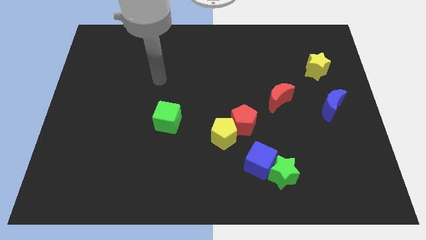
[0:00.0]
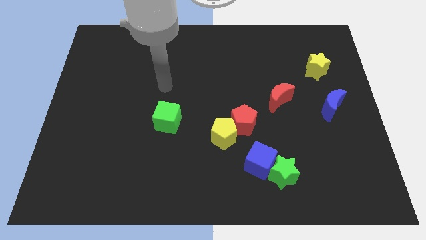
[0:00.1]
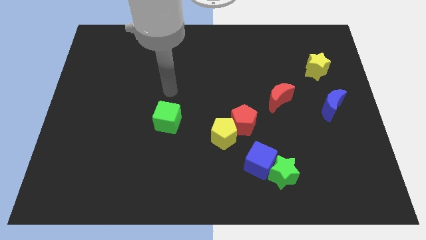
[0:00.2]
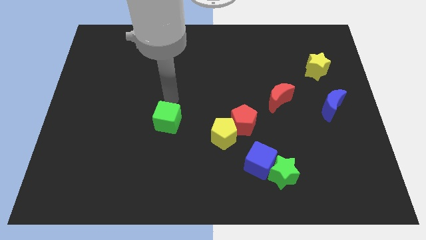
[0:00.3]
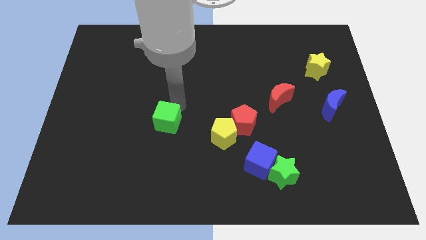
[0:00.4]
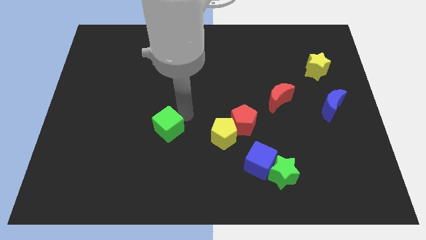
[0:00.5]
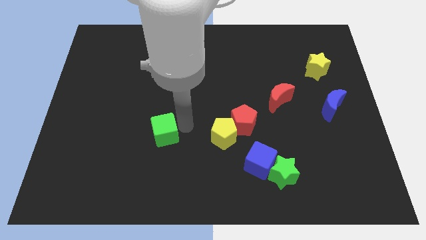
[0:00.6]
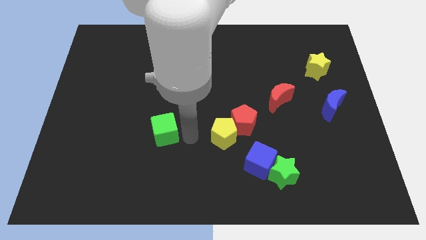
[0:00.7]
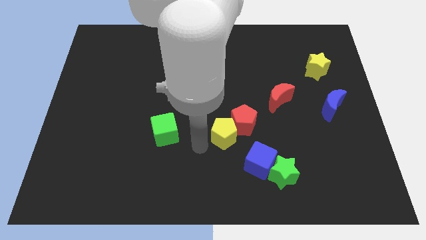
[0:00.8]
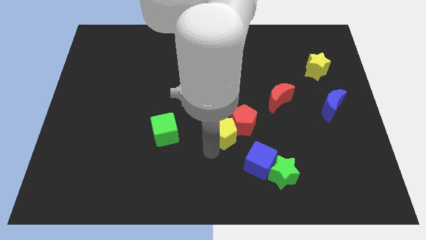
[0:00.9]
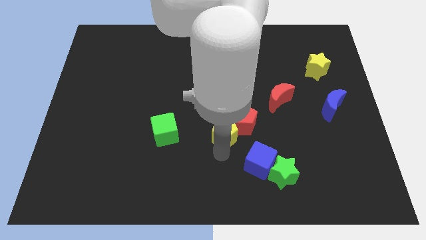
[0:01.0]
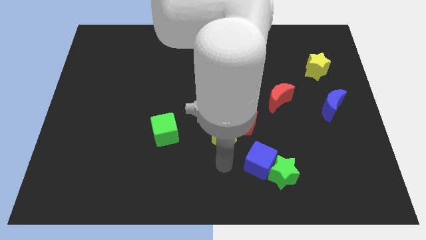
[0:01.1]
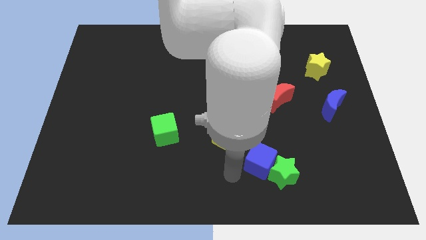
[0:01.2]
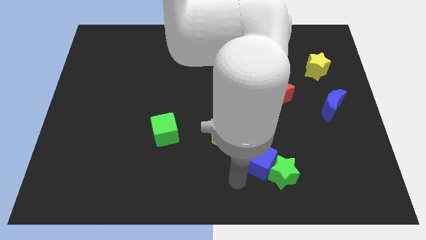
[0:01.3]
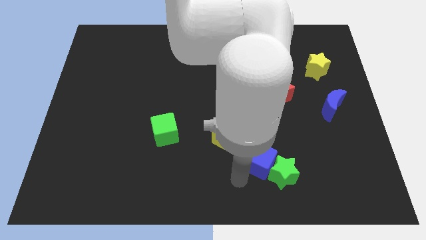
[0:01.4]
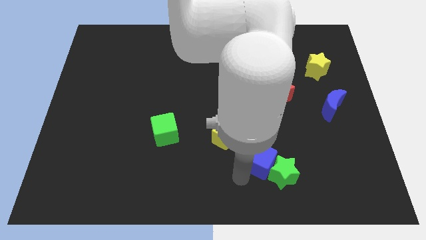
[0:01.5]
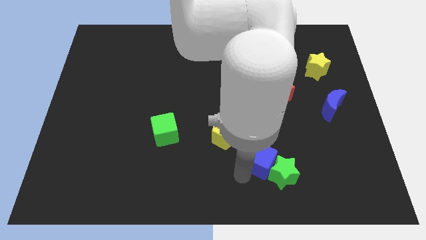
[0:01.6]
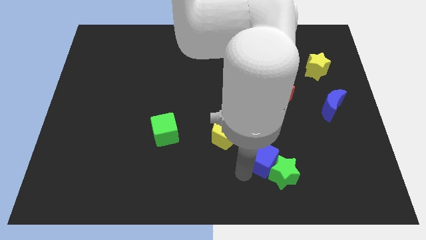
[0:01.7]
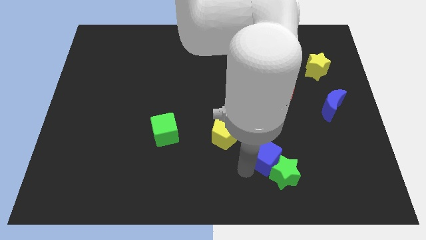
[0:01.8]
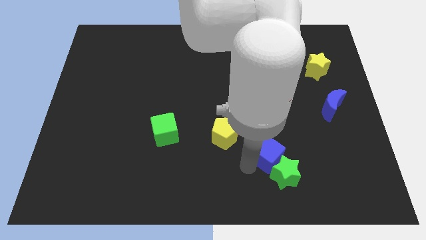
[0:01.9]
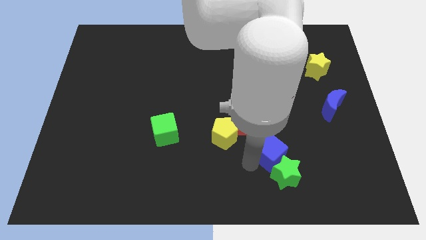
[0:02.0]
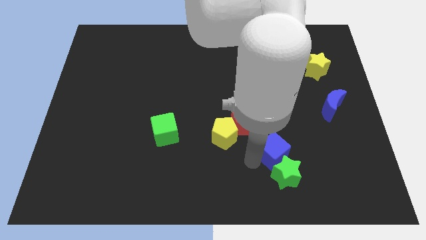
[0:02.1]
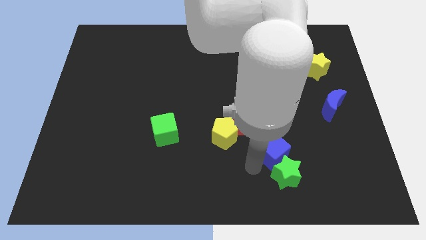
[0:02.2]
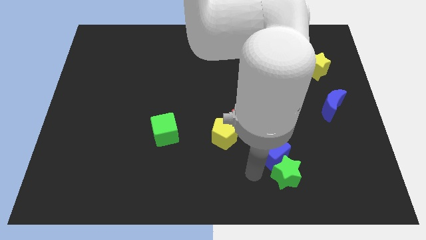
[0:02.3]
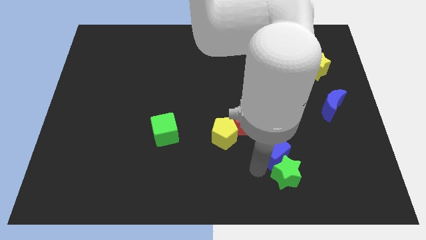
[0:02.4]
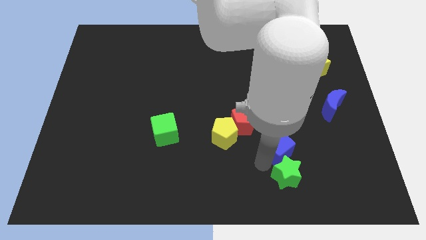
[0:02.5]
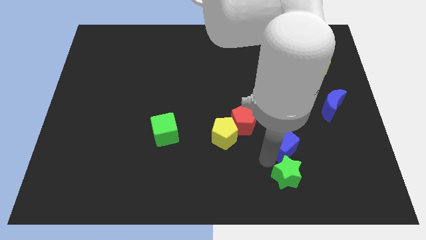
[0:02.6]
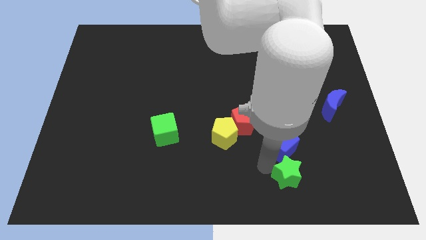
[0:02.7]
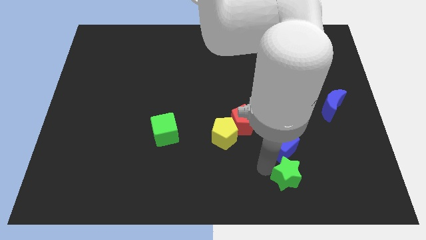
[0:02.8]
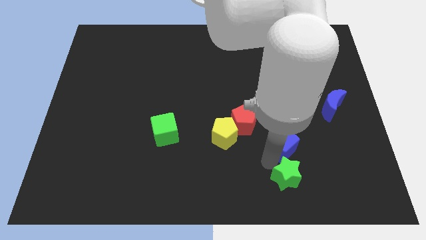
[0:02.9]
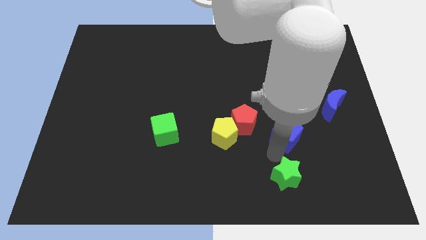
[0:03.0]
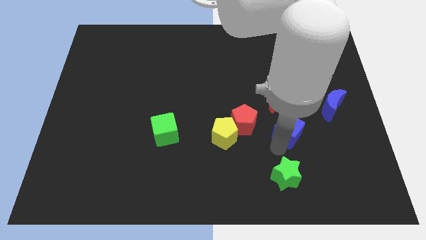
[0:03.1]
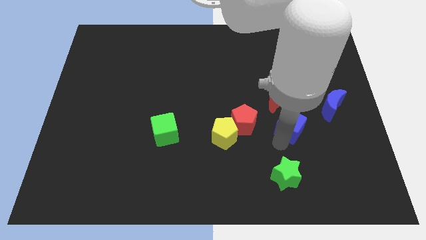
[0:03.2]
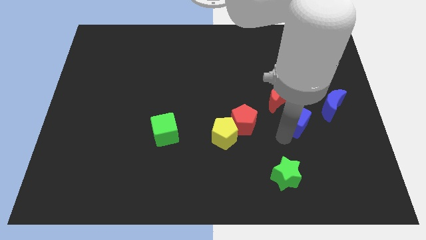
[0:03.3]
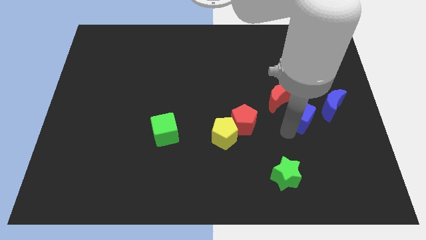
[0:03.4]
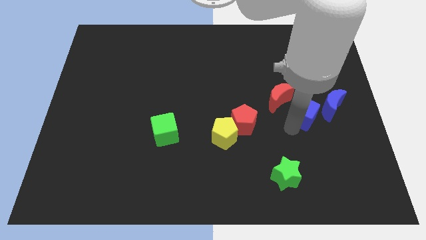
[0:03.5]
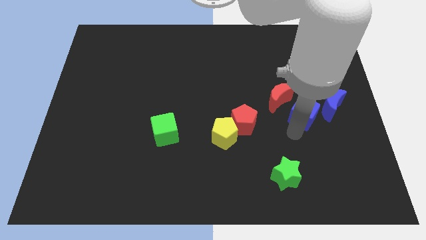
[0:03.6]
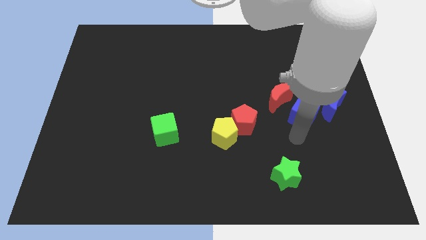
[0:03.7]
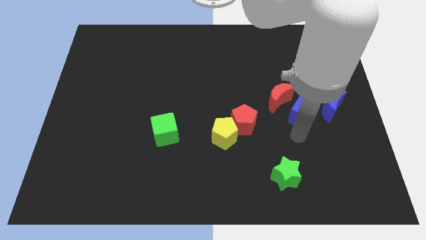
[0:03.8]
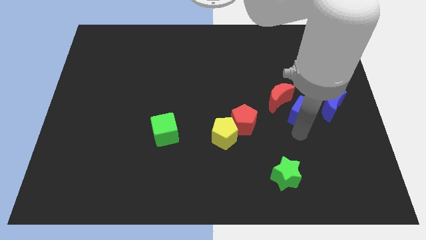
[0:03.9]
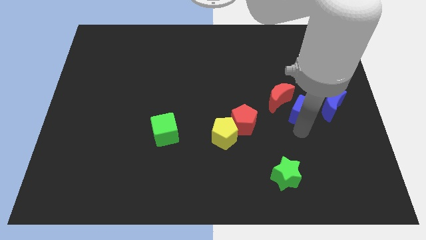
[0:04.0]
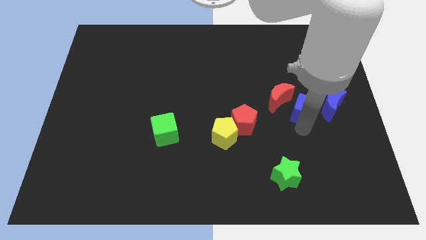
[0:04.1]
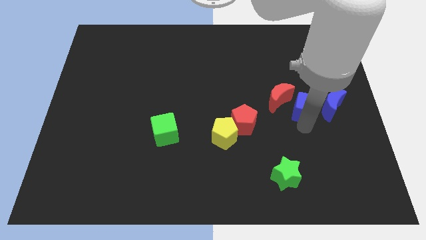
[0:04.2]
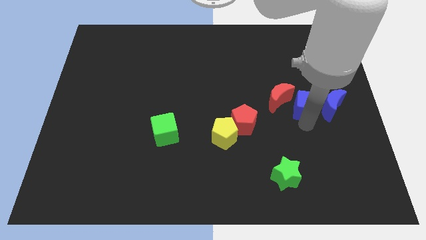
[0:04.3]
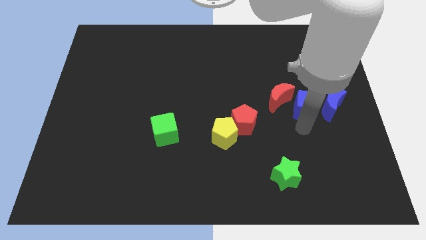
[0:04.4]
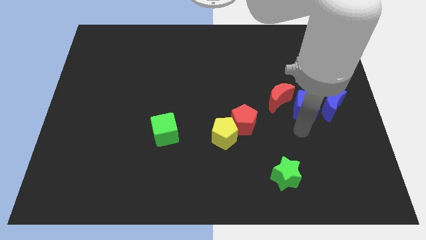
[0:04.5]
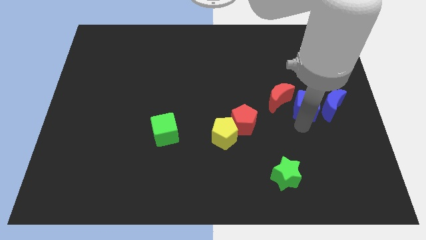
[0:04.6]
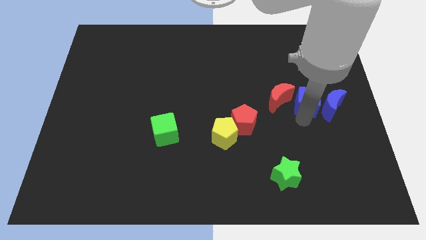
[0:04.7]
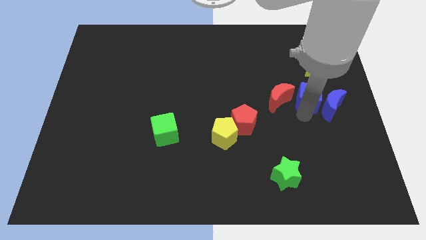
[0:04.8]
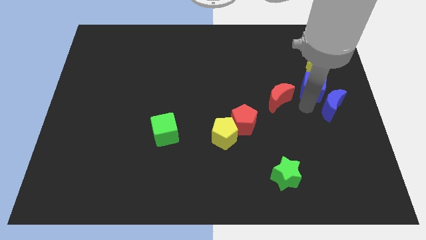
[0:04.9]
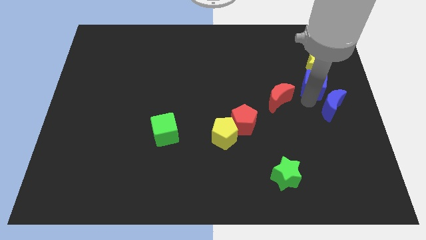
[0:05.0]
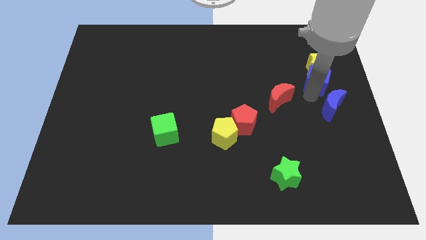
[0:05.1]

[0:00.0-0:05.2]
put the blue cube towards the yellow star

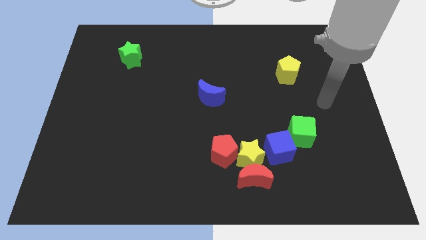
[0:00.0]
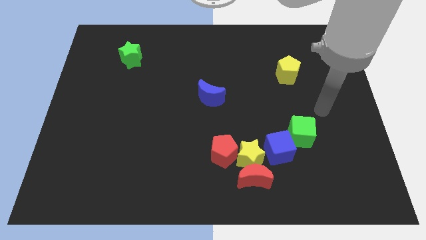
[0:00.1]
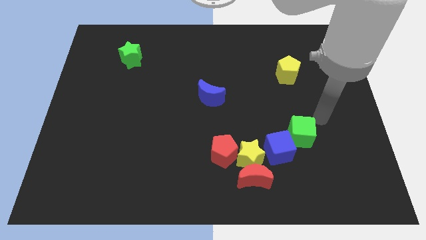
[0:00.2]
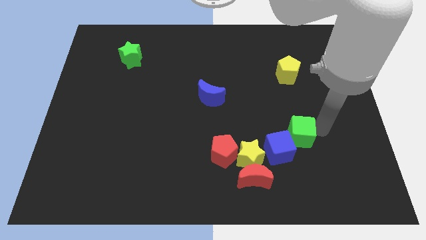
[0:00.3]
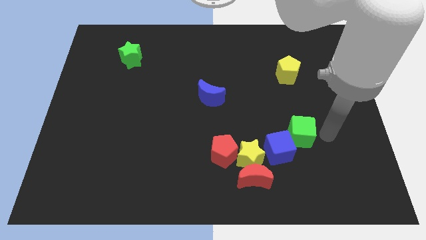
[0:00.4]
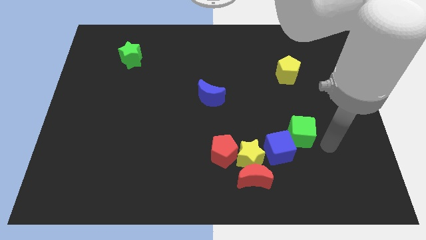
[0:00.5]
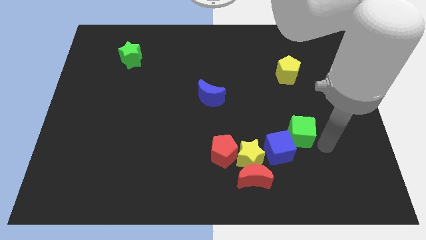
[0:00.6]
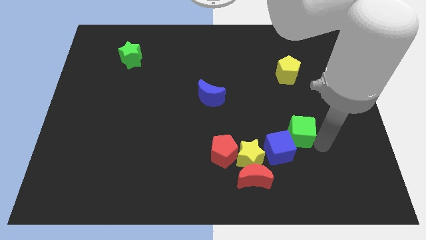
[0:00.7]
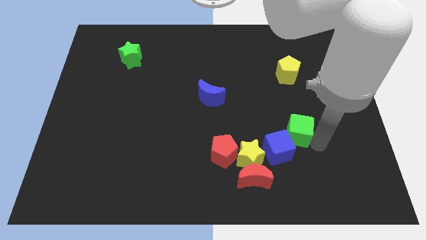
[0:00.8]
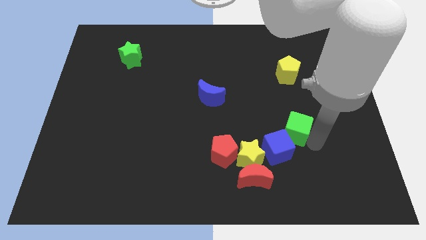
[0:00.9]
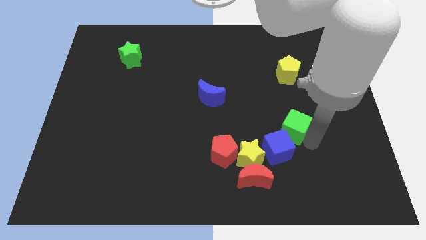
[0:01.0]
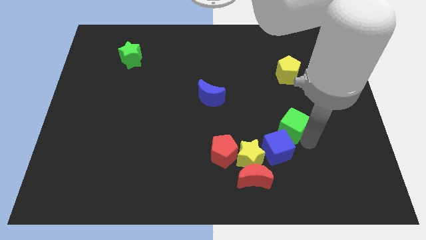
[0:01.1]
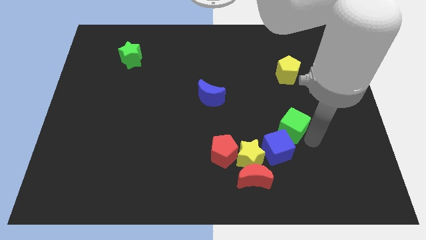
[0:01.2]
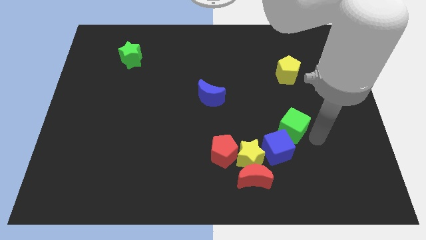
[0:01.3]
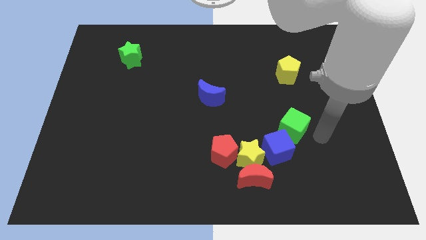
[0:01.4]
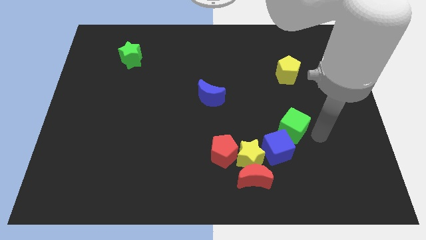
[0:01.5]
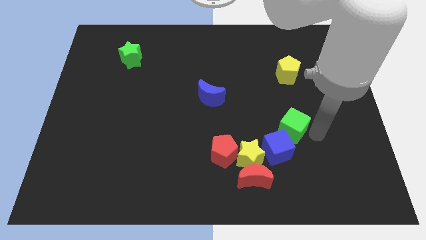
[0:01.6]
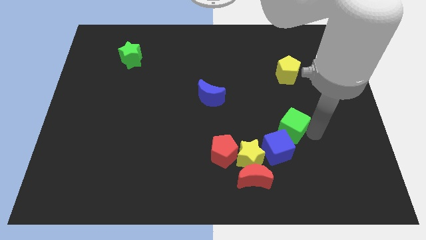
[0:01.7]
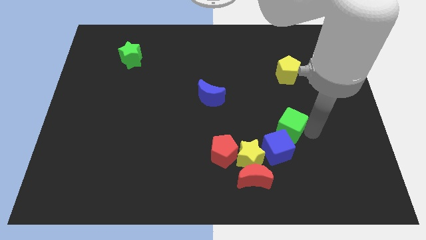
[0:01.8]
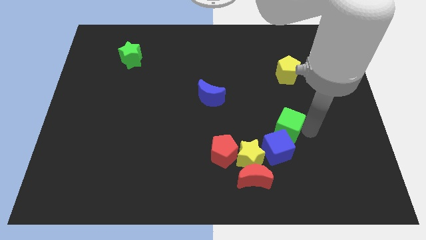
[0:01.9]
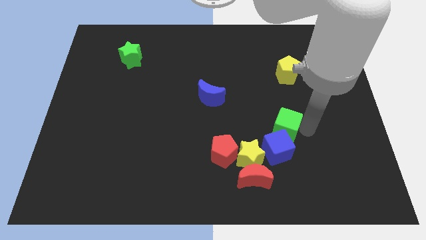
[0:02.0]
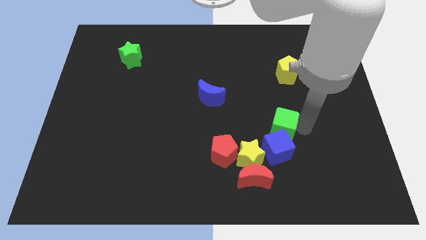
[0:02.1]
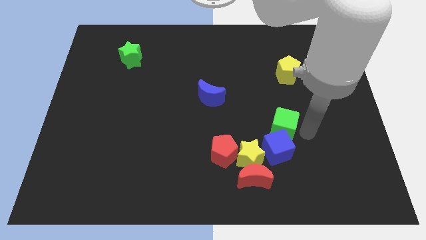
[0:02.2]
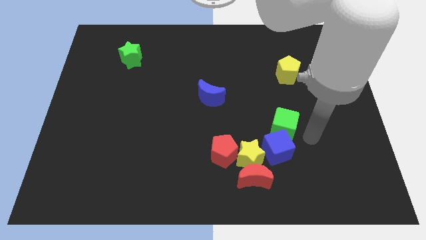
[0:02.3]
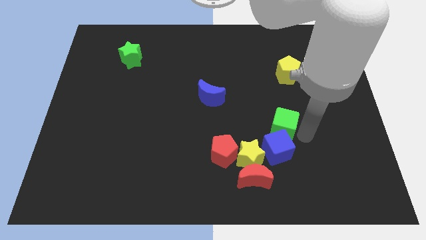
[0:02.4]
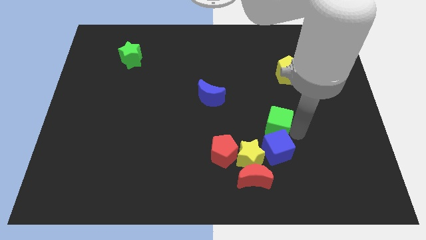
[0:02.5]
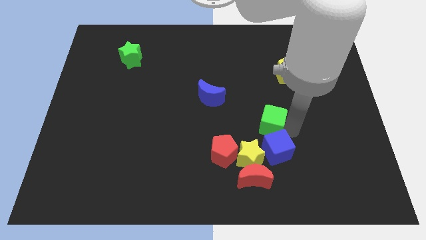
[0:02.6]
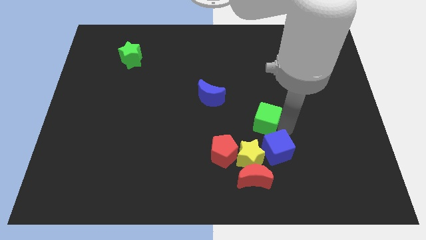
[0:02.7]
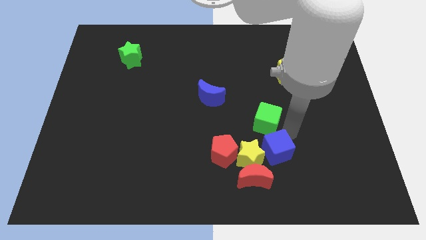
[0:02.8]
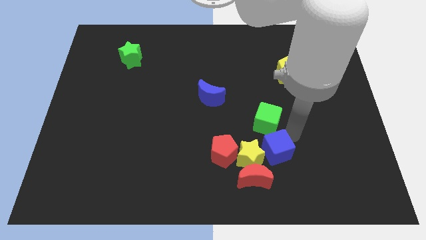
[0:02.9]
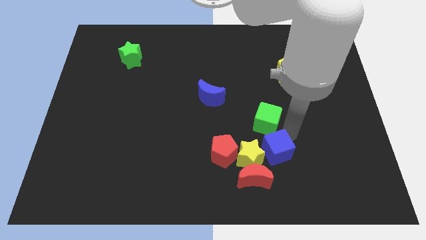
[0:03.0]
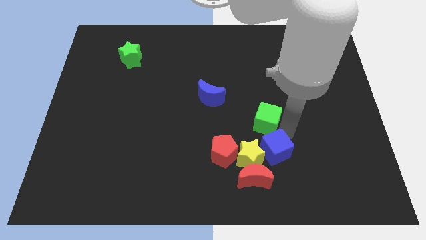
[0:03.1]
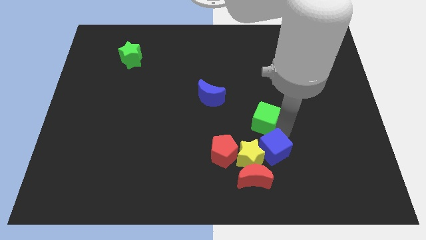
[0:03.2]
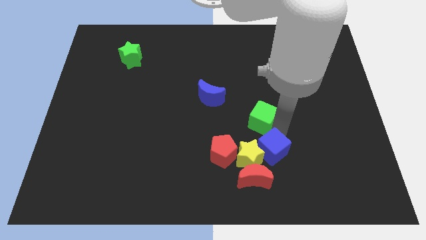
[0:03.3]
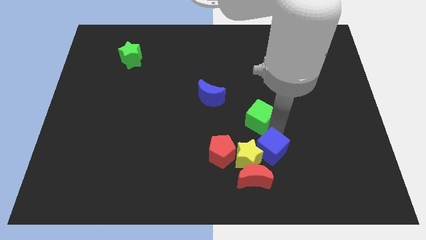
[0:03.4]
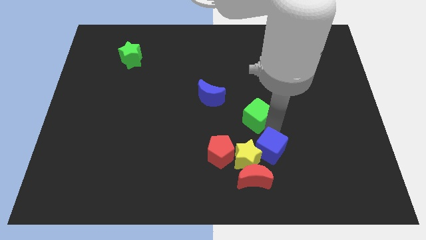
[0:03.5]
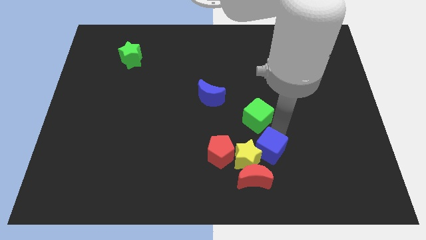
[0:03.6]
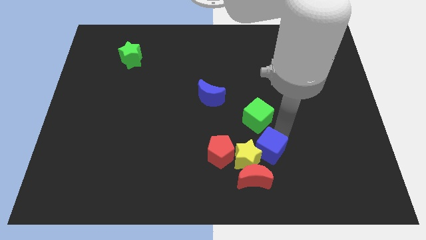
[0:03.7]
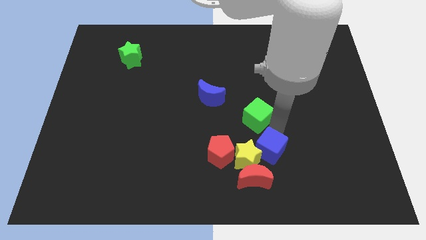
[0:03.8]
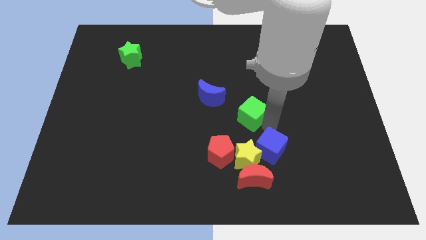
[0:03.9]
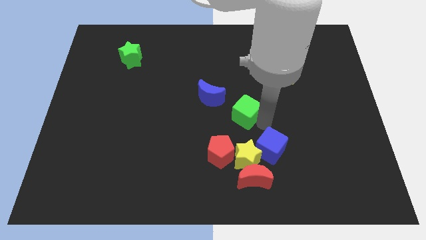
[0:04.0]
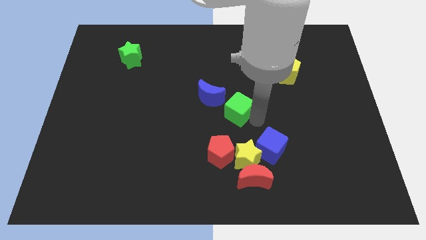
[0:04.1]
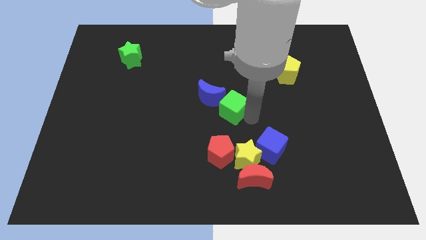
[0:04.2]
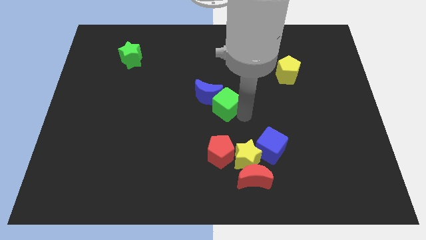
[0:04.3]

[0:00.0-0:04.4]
push the green cube towards the blue moon
